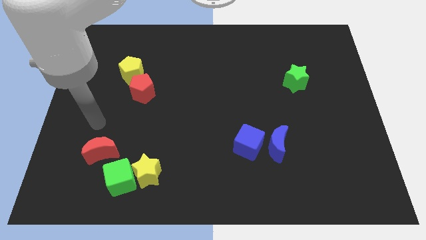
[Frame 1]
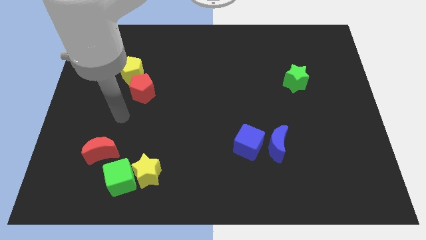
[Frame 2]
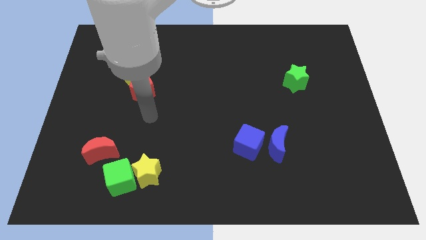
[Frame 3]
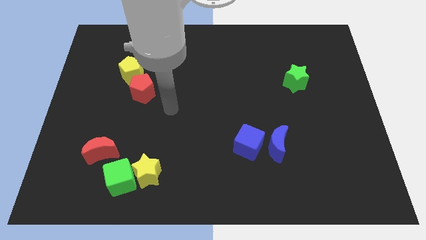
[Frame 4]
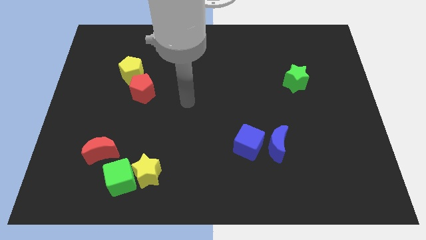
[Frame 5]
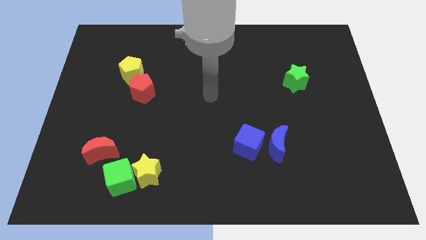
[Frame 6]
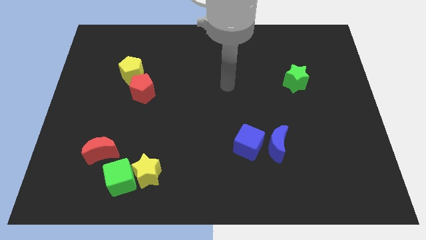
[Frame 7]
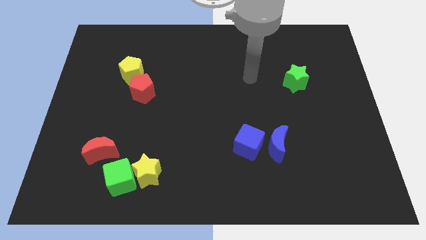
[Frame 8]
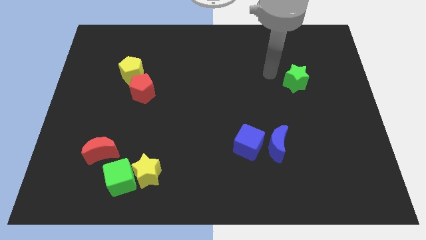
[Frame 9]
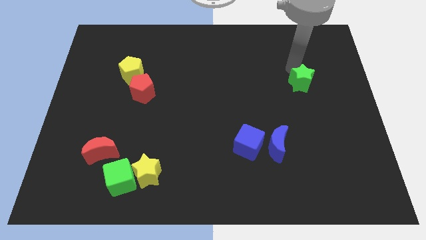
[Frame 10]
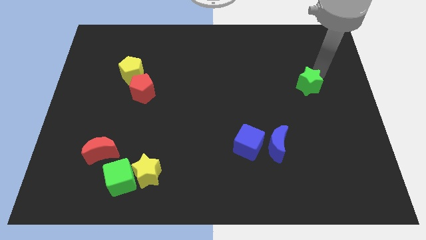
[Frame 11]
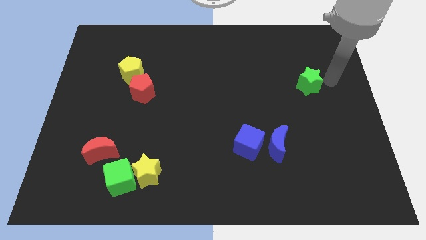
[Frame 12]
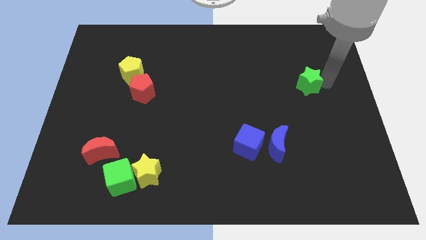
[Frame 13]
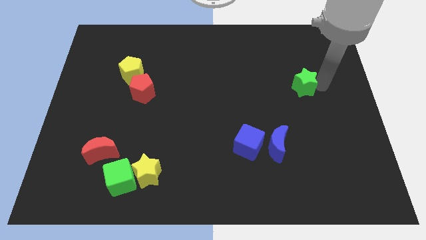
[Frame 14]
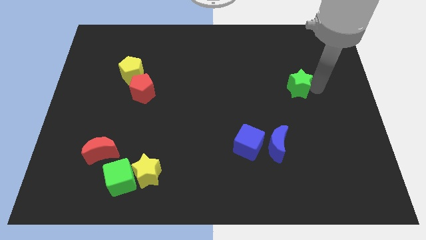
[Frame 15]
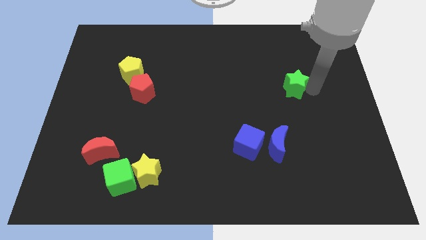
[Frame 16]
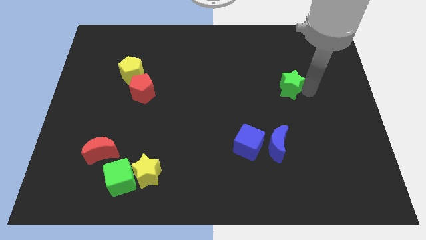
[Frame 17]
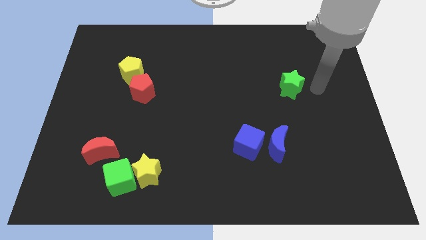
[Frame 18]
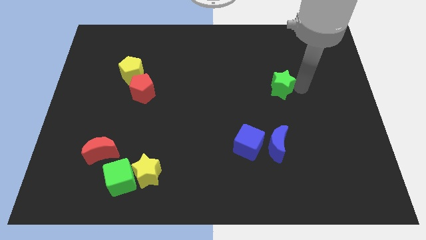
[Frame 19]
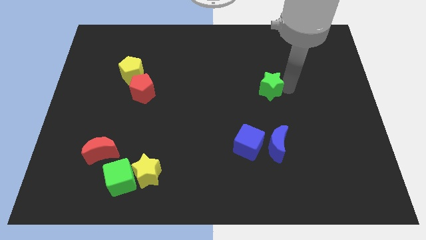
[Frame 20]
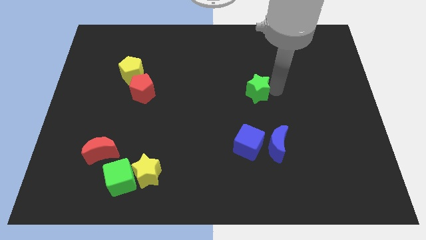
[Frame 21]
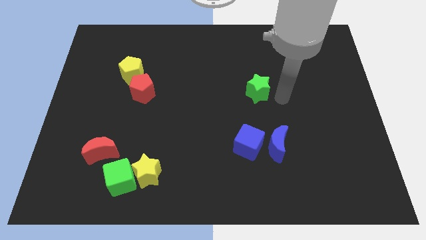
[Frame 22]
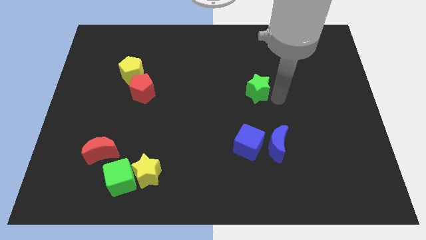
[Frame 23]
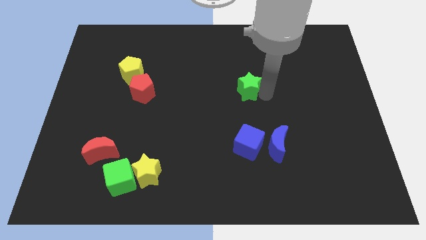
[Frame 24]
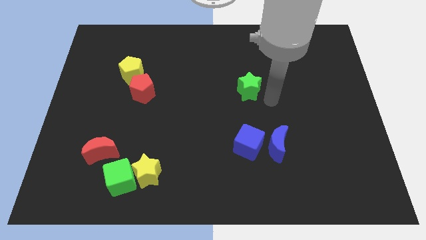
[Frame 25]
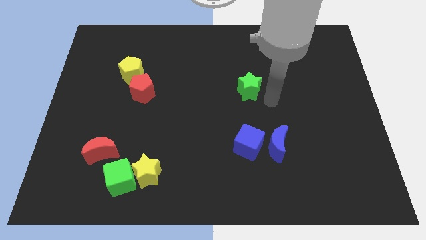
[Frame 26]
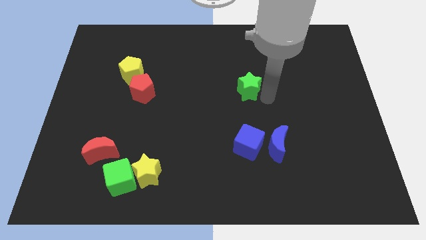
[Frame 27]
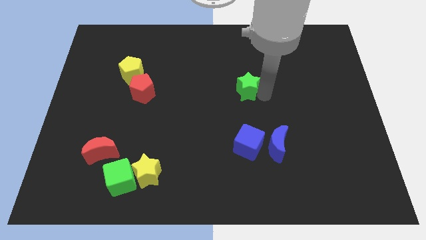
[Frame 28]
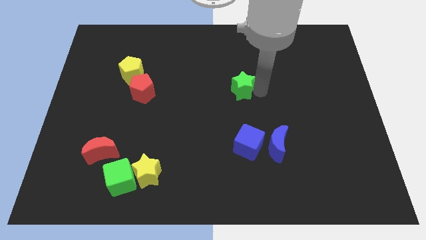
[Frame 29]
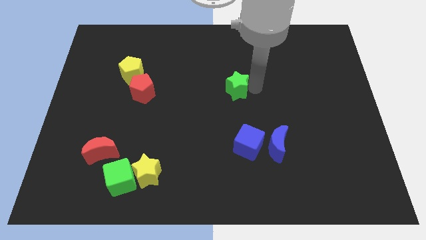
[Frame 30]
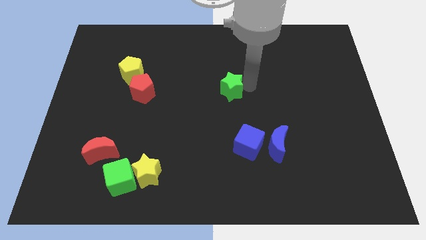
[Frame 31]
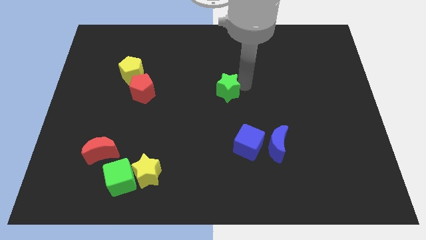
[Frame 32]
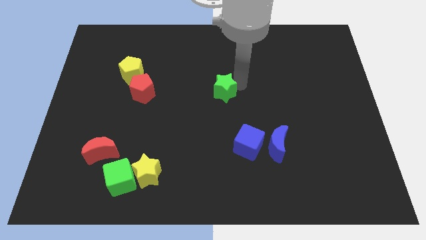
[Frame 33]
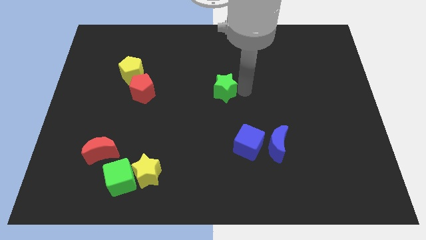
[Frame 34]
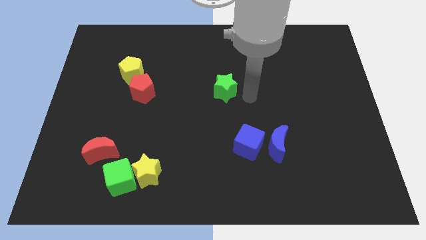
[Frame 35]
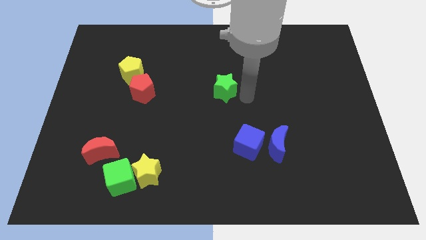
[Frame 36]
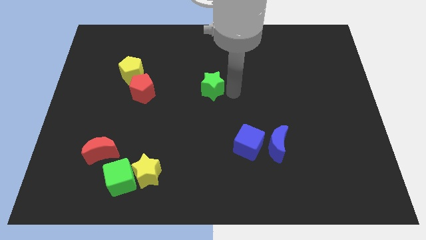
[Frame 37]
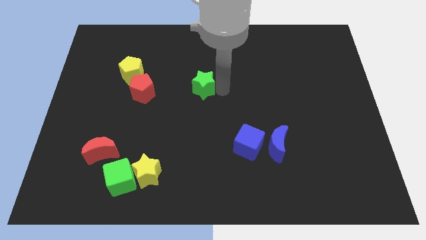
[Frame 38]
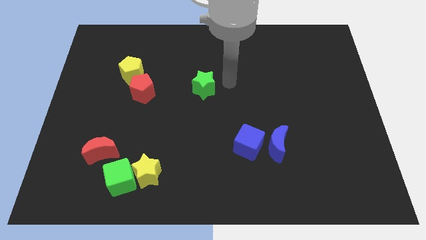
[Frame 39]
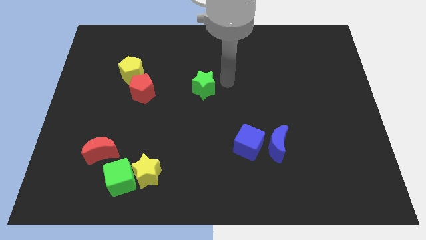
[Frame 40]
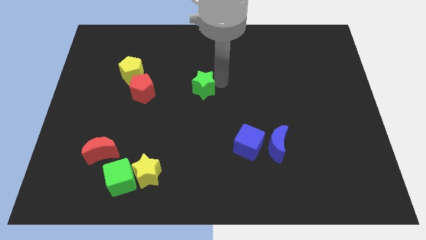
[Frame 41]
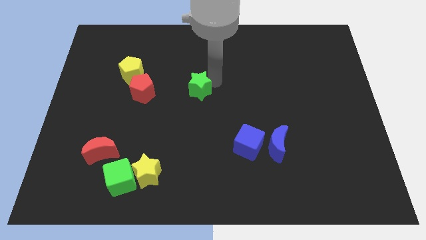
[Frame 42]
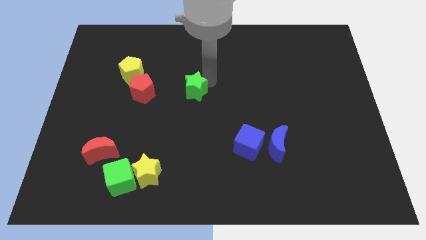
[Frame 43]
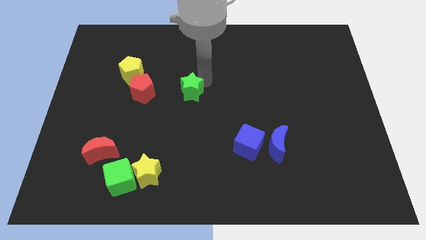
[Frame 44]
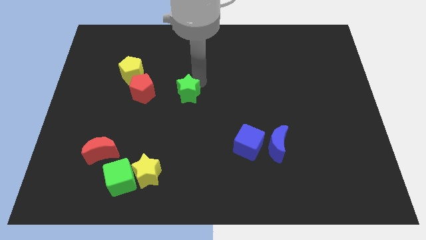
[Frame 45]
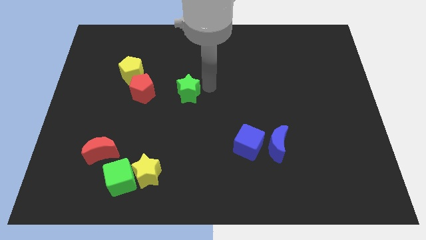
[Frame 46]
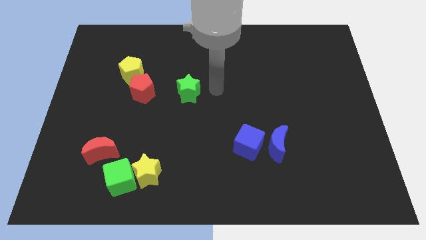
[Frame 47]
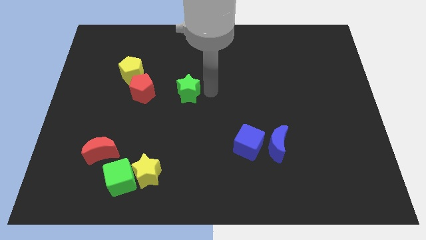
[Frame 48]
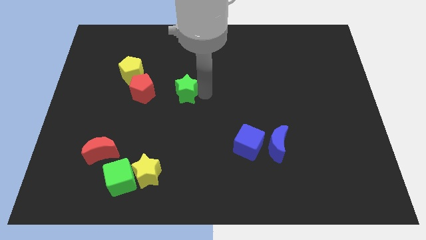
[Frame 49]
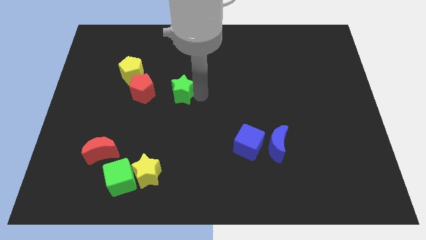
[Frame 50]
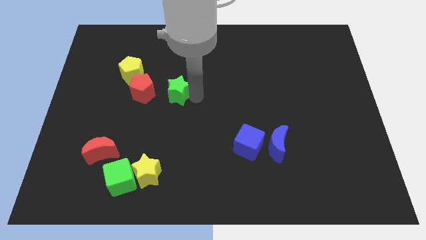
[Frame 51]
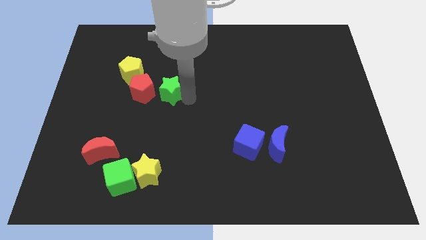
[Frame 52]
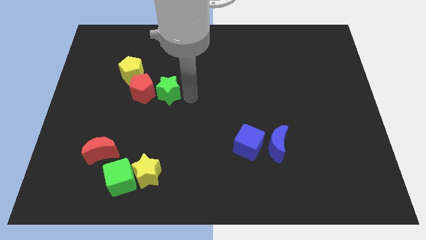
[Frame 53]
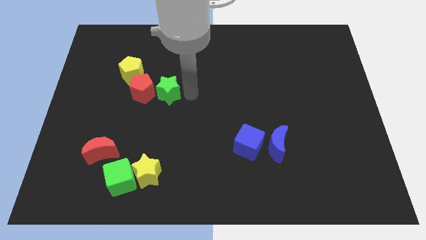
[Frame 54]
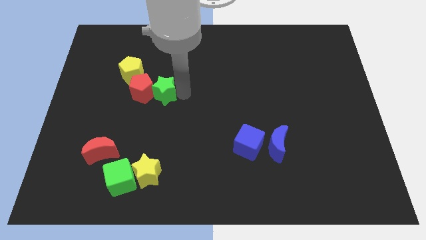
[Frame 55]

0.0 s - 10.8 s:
push the green star to the red pentagon

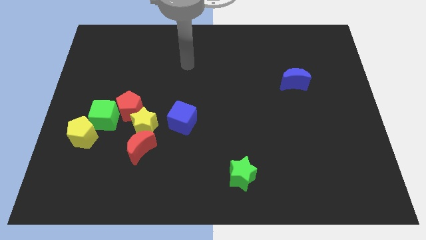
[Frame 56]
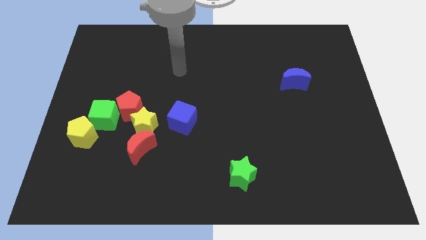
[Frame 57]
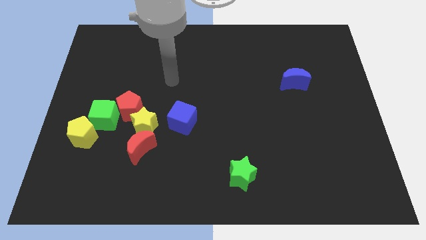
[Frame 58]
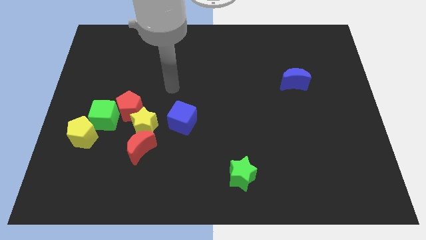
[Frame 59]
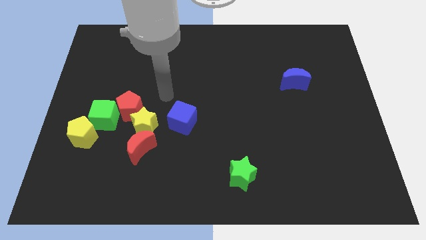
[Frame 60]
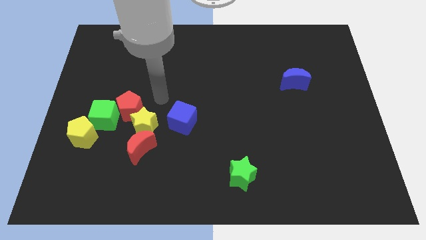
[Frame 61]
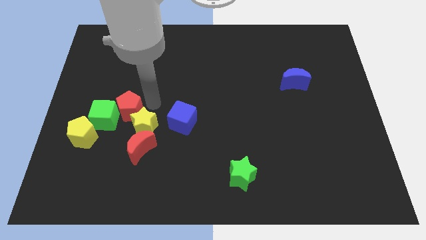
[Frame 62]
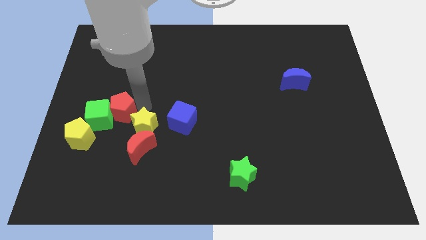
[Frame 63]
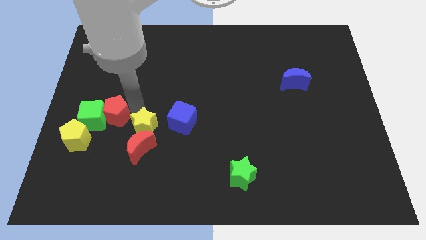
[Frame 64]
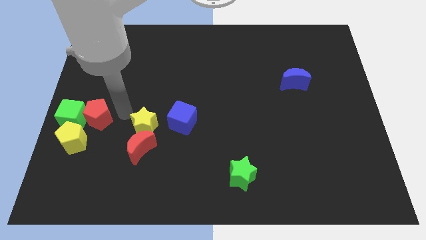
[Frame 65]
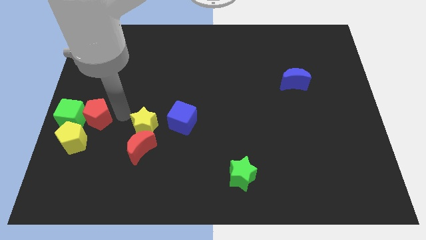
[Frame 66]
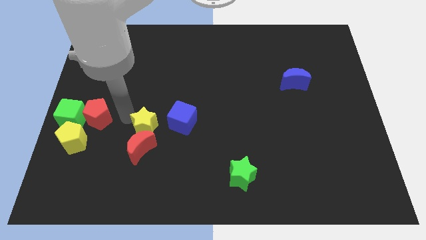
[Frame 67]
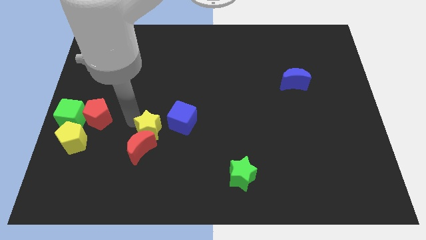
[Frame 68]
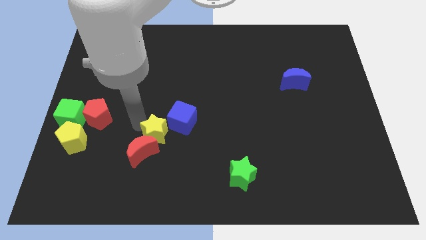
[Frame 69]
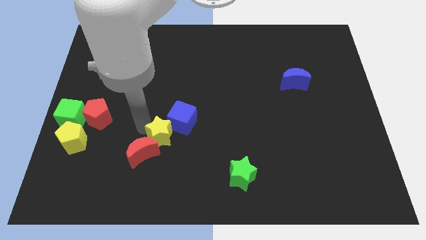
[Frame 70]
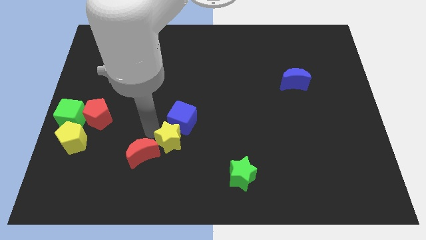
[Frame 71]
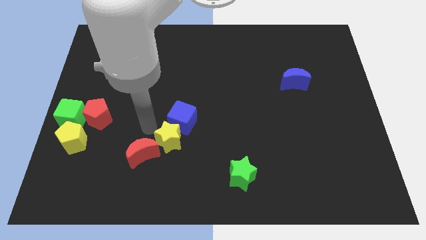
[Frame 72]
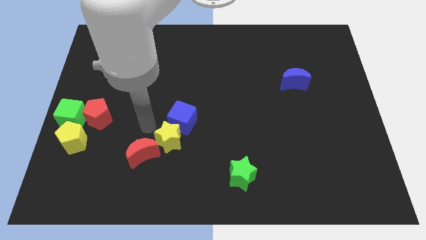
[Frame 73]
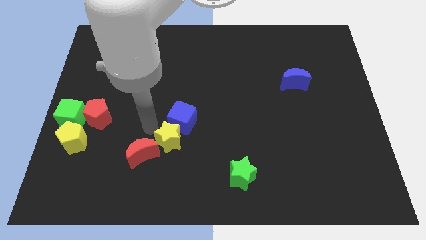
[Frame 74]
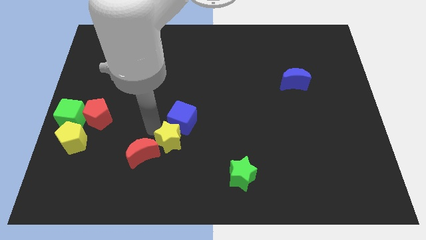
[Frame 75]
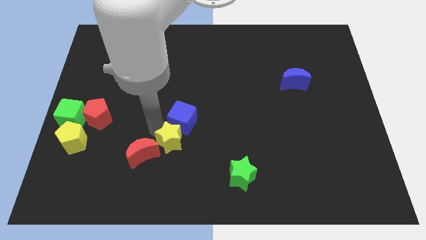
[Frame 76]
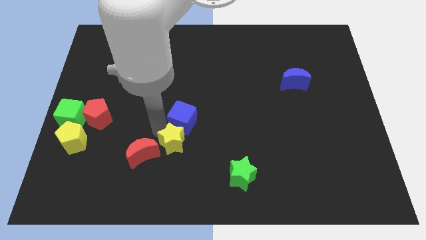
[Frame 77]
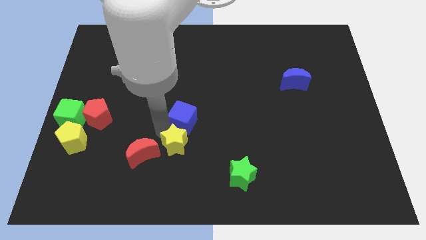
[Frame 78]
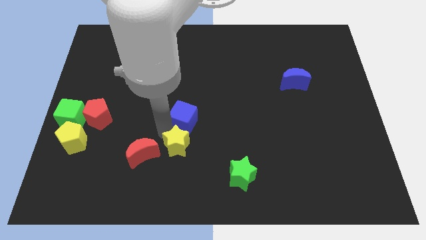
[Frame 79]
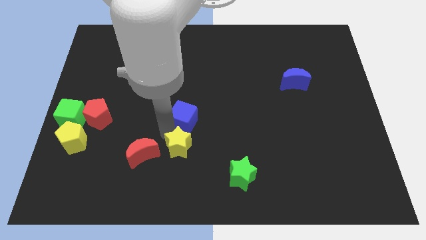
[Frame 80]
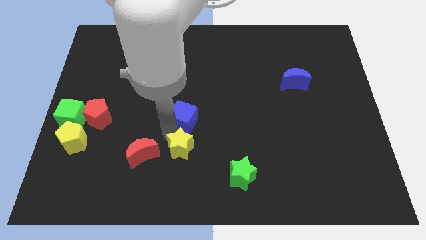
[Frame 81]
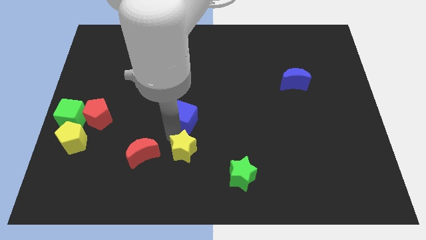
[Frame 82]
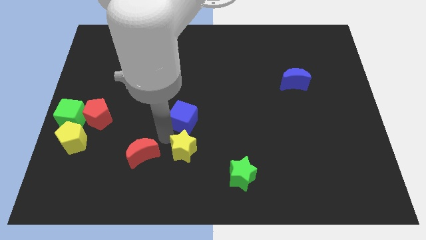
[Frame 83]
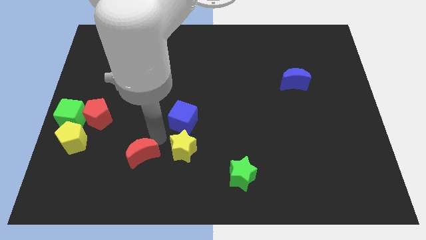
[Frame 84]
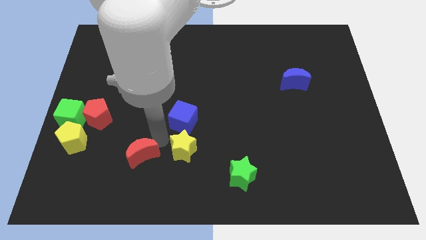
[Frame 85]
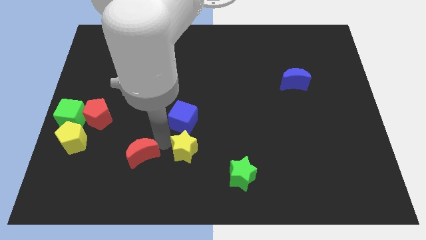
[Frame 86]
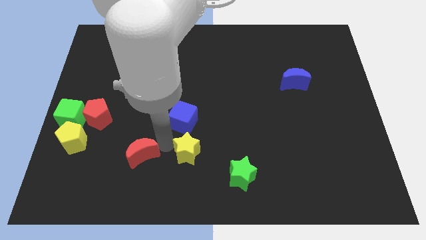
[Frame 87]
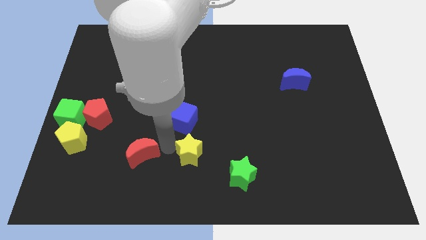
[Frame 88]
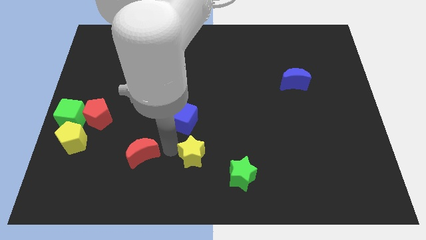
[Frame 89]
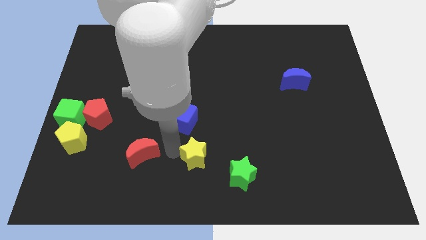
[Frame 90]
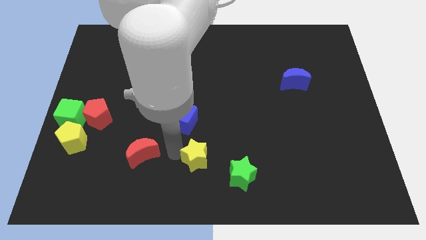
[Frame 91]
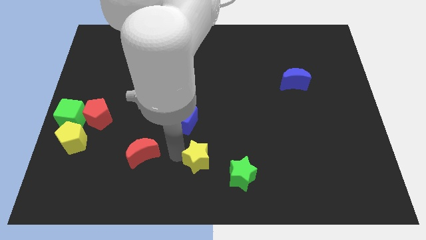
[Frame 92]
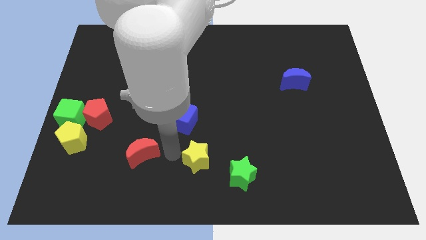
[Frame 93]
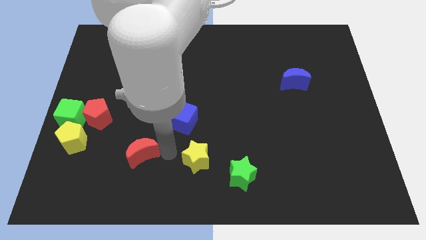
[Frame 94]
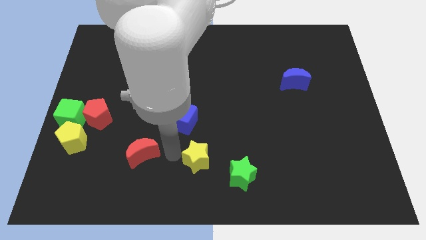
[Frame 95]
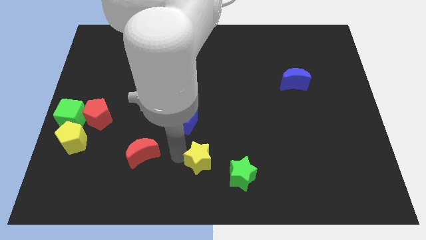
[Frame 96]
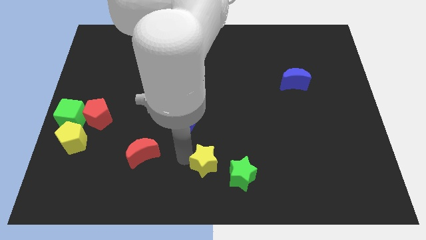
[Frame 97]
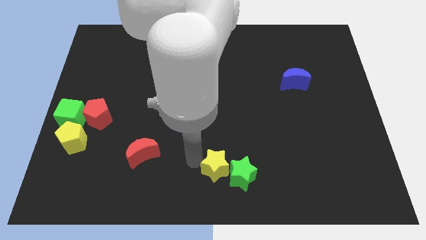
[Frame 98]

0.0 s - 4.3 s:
put the yellow star towards the green star
